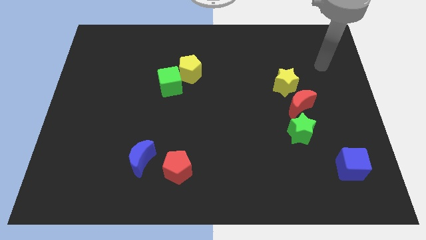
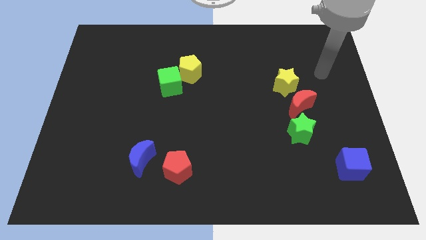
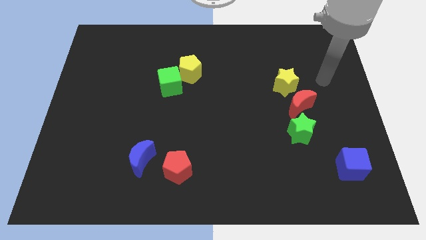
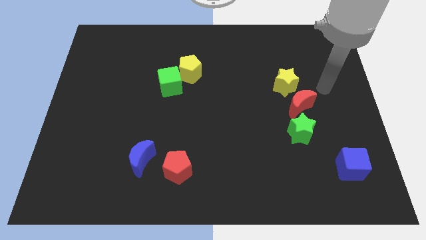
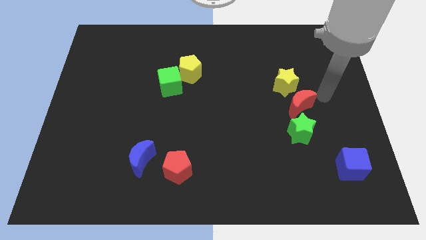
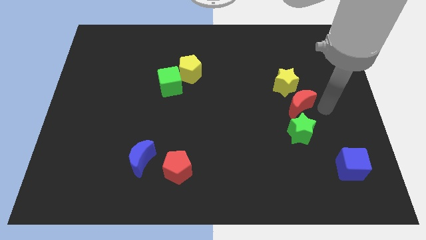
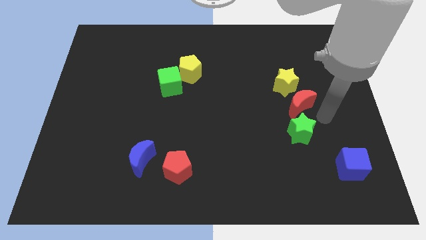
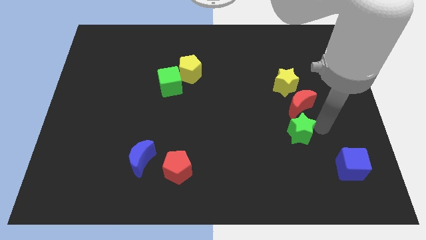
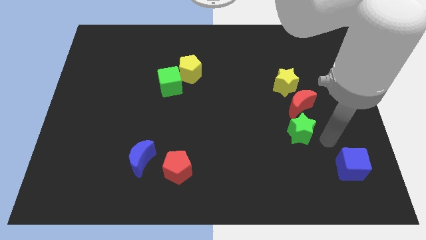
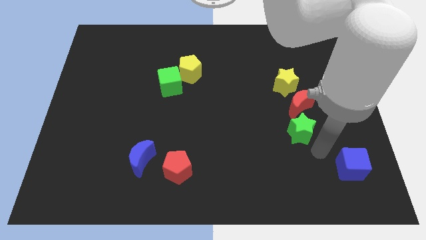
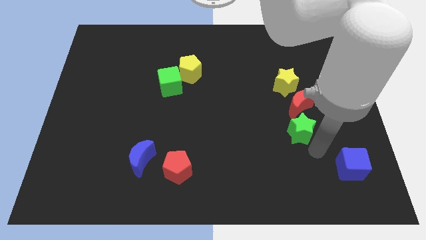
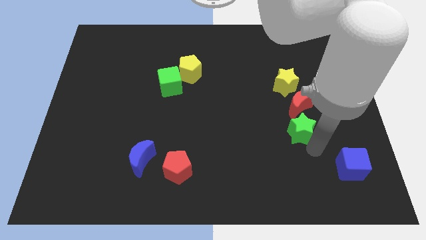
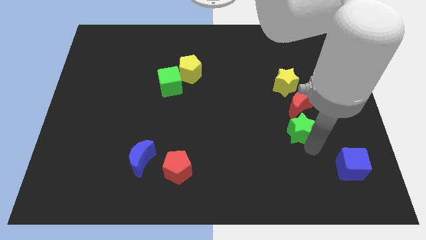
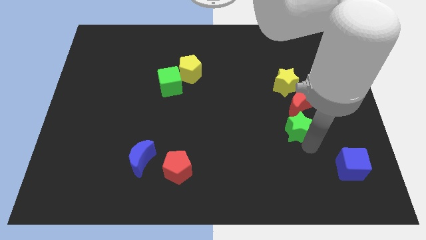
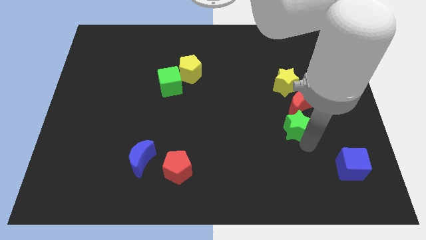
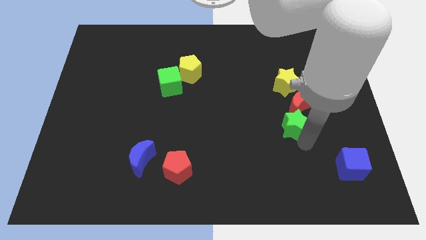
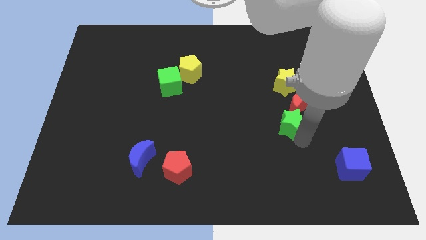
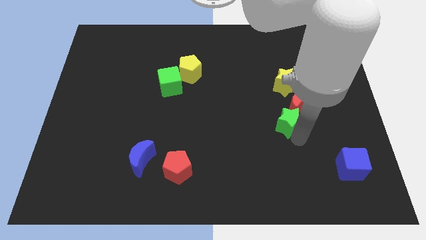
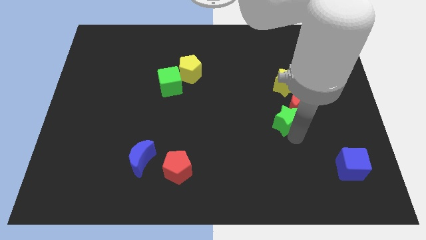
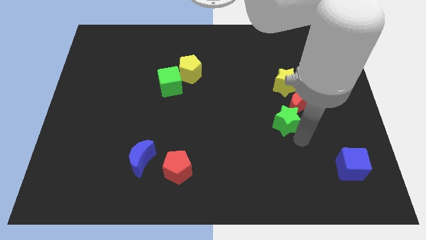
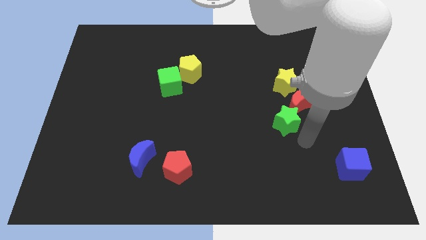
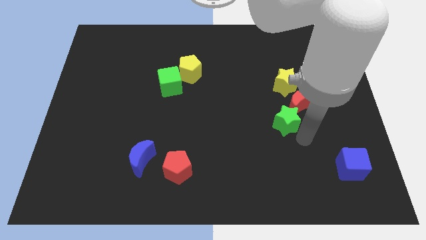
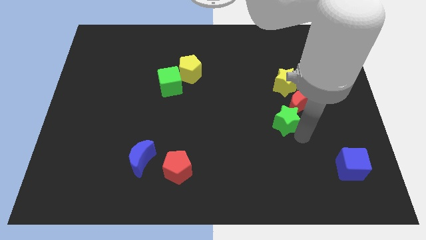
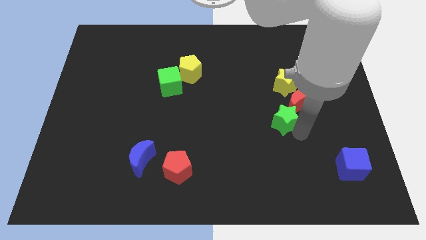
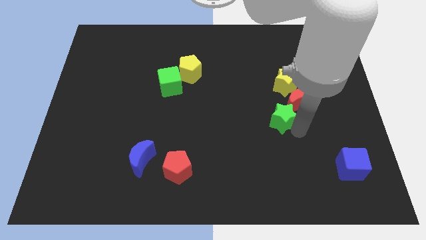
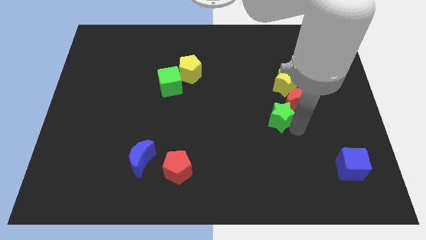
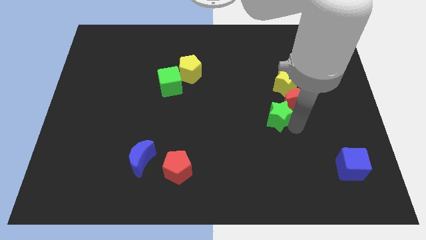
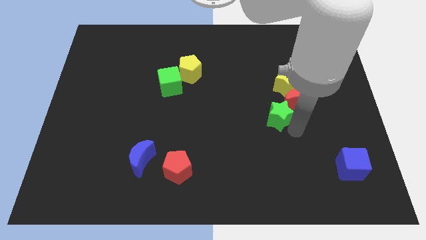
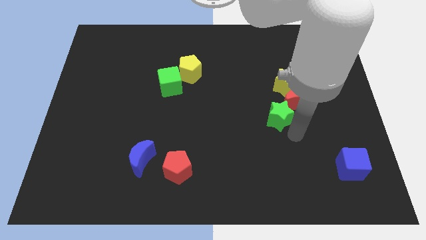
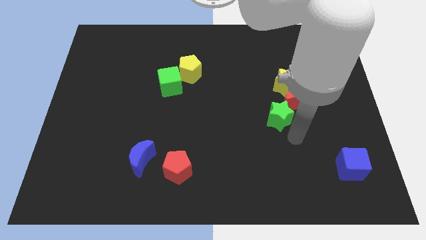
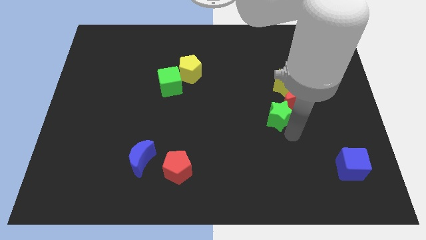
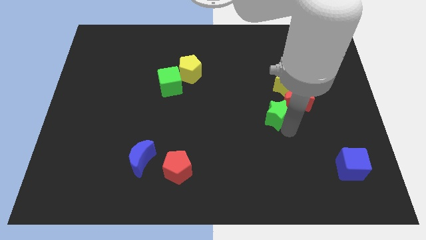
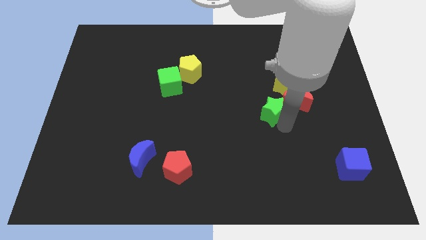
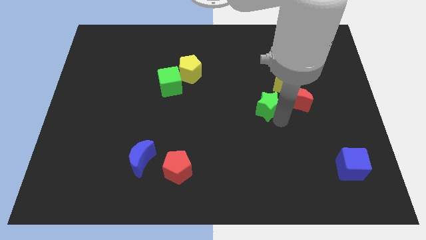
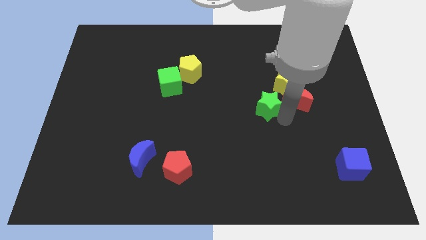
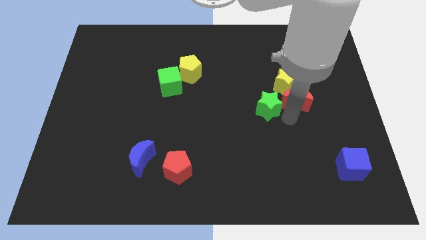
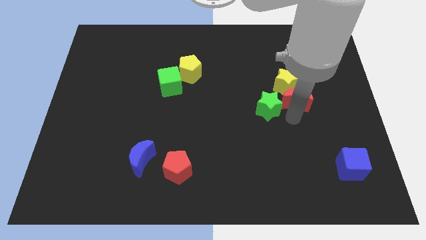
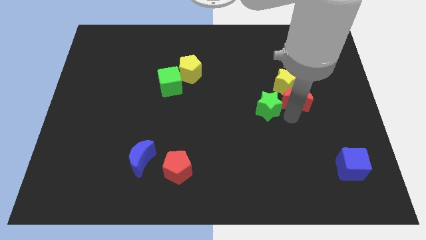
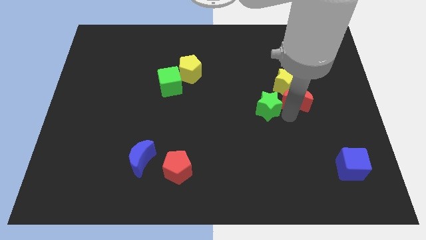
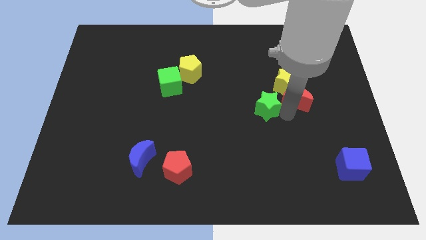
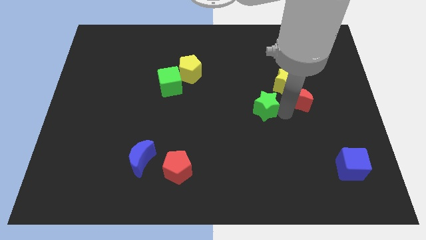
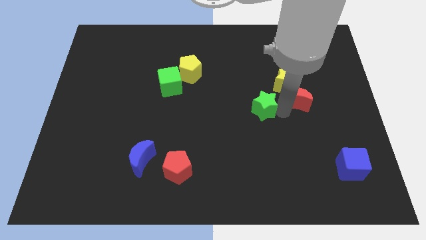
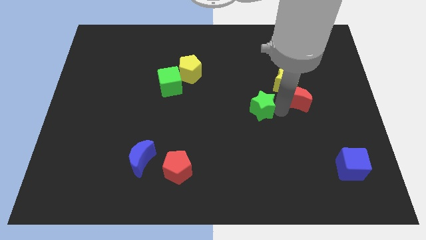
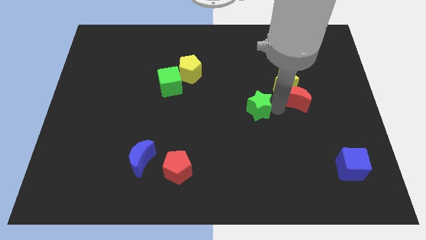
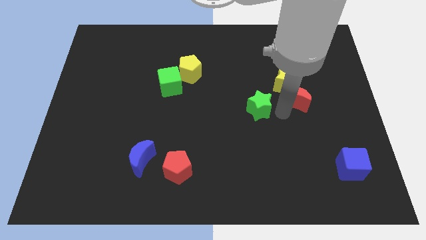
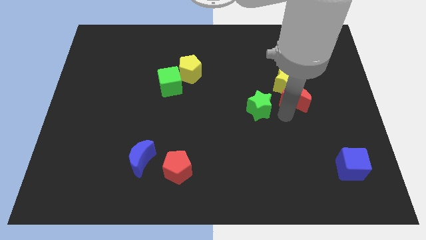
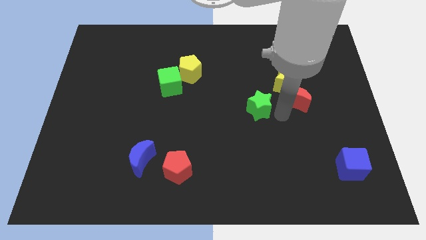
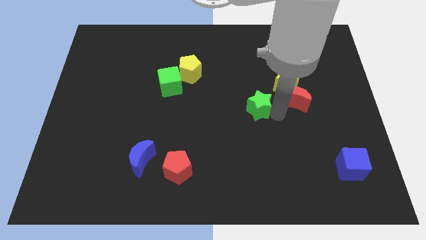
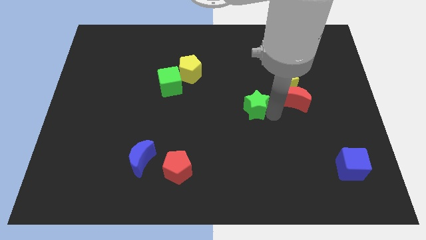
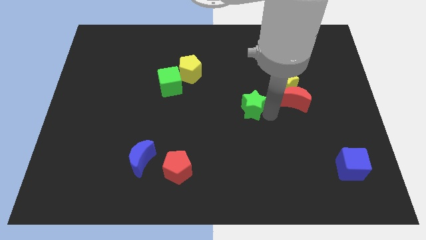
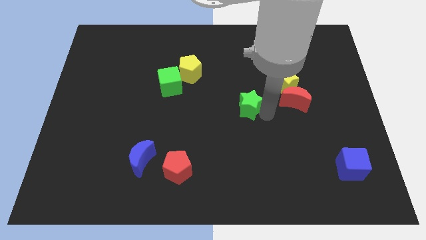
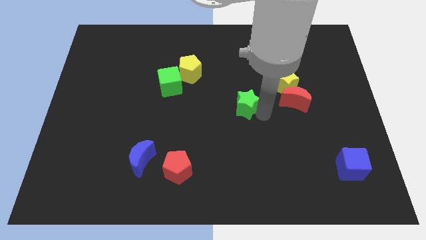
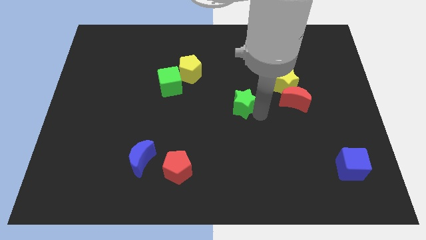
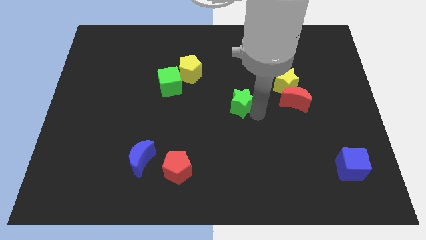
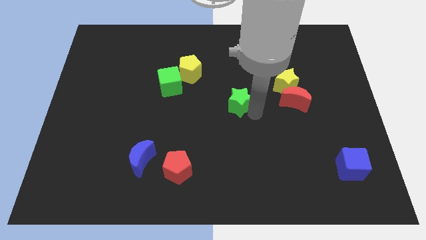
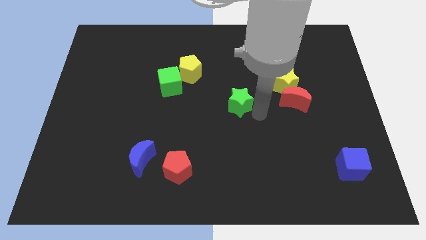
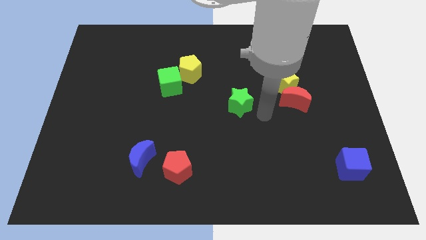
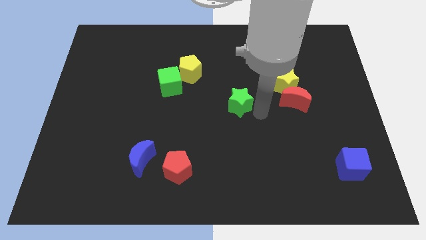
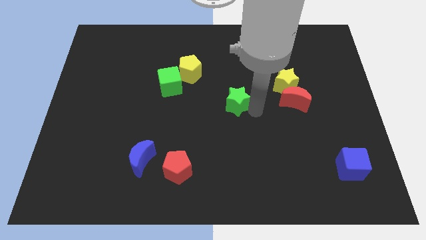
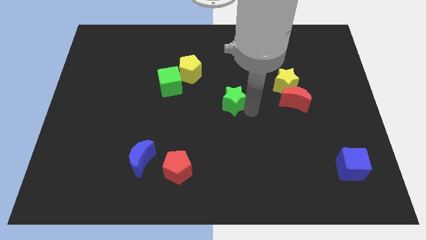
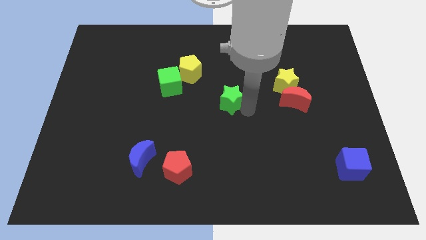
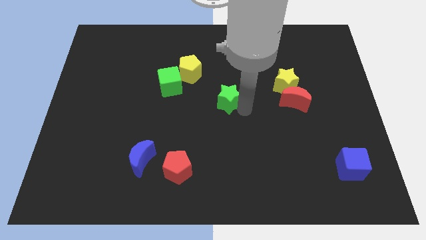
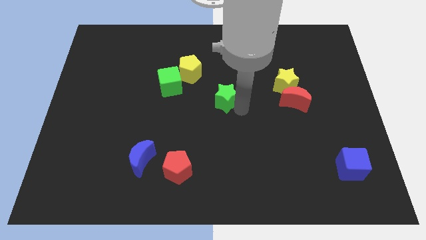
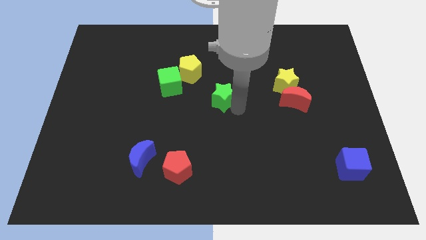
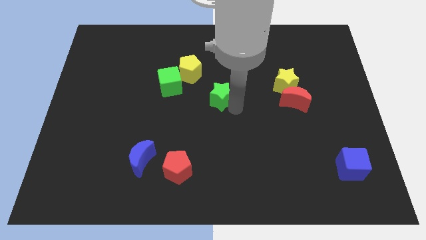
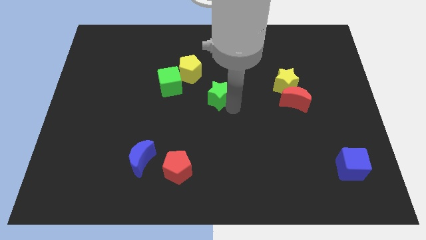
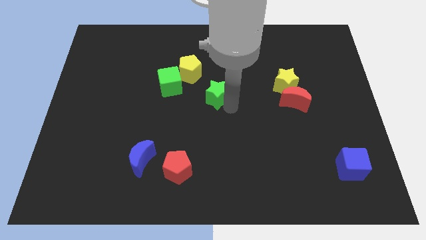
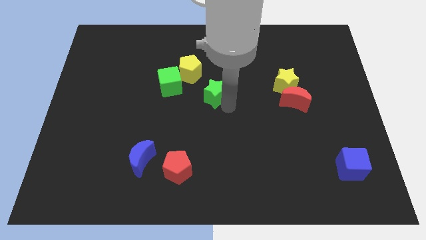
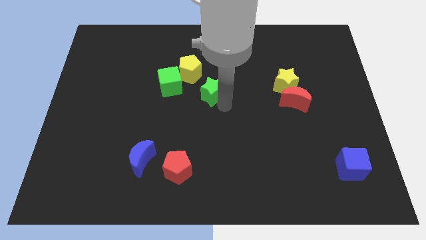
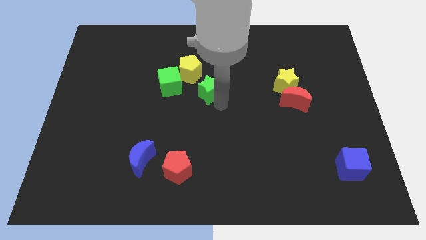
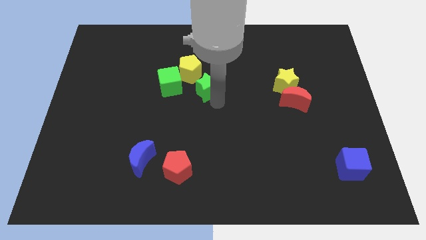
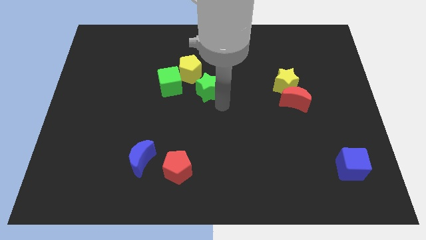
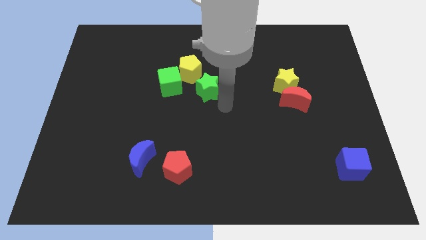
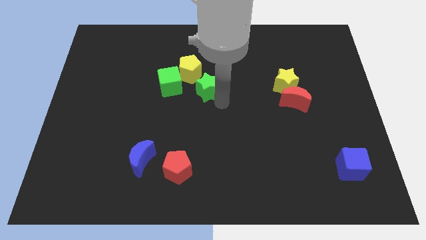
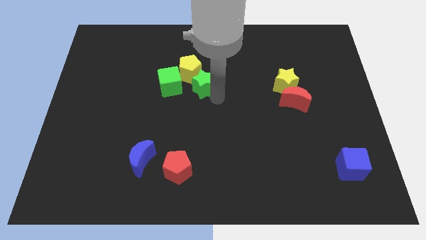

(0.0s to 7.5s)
put the green star to the yellow pentagon

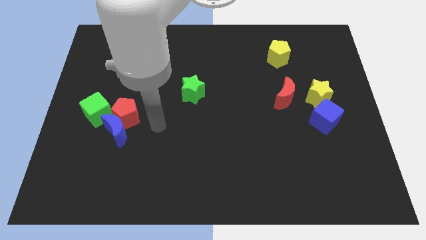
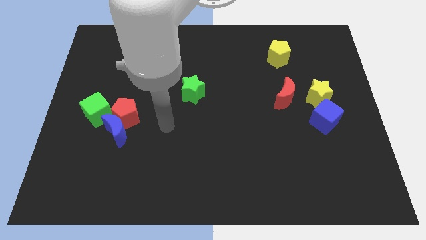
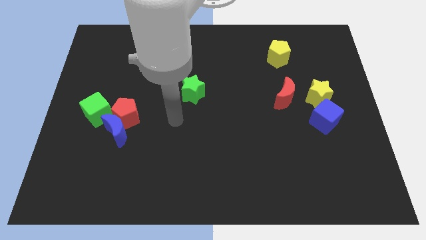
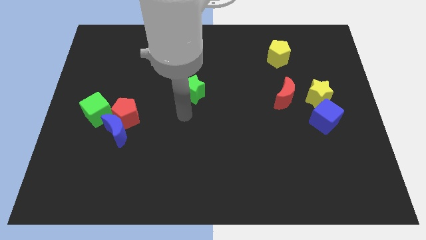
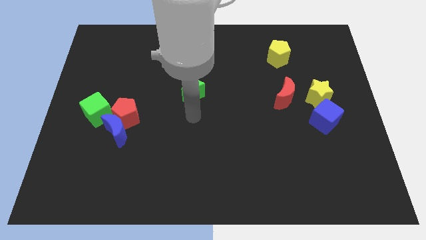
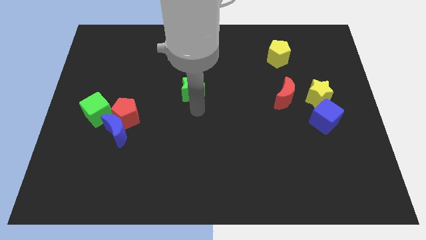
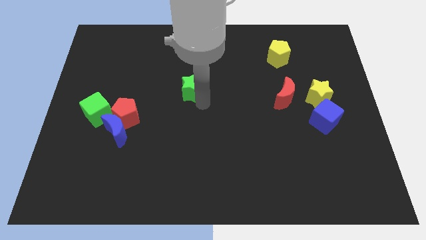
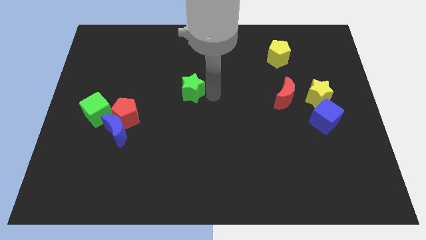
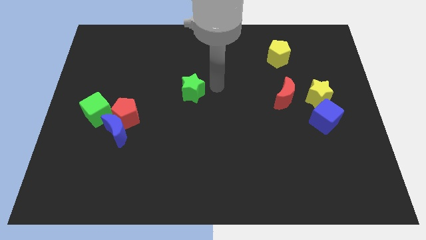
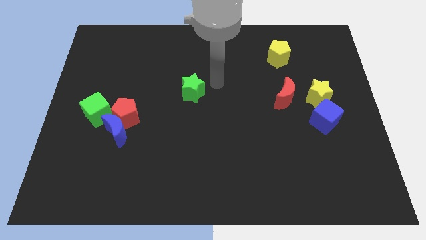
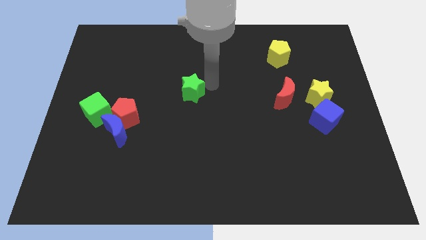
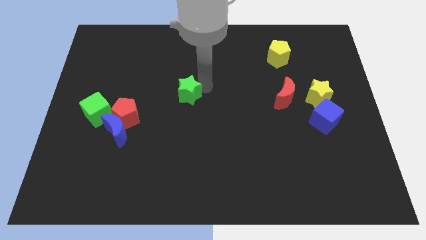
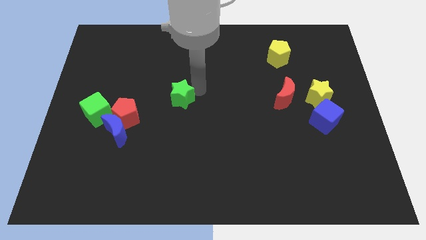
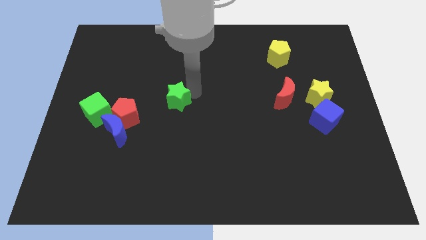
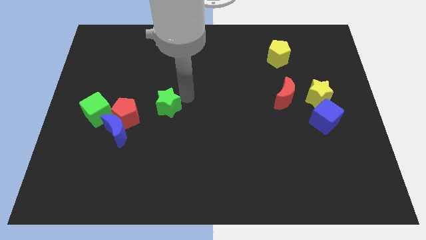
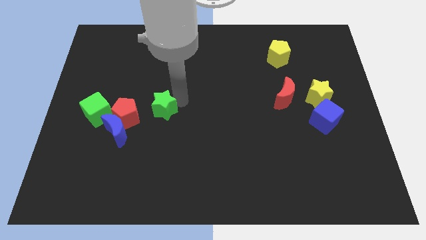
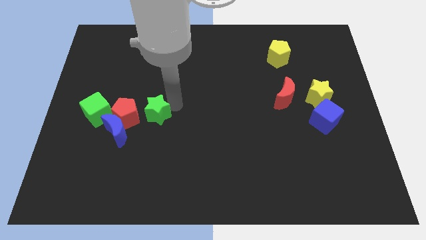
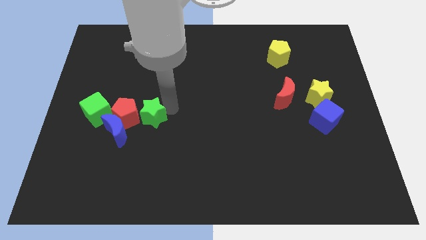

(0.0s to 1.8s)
put the green star close to the red pentagon
